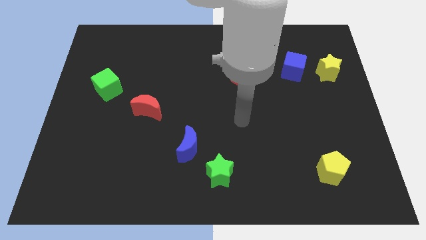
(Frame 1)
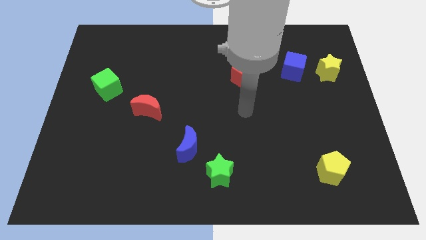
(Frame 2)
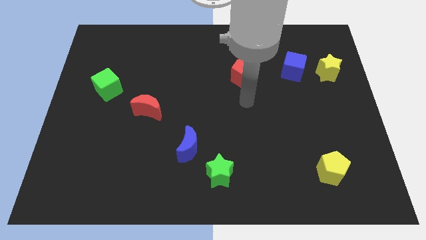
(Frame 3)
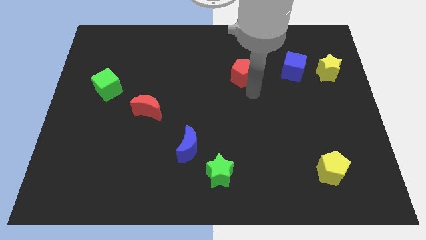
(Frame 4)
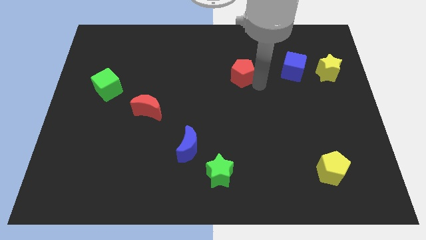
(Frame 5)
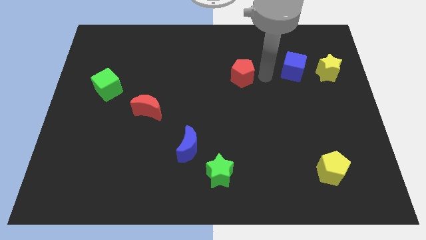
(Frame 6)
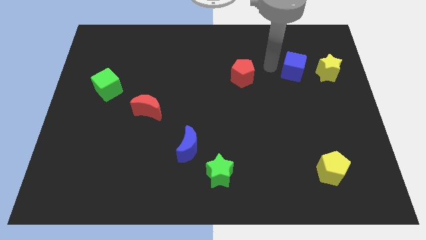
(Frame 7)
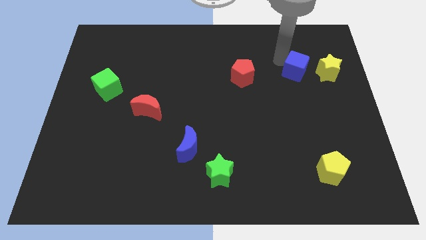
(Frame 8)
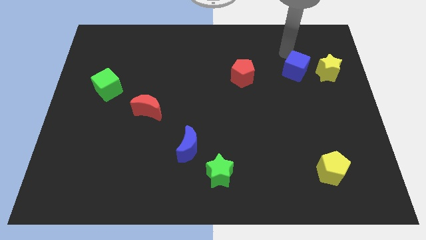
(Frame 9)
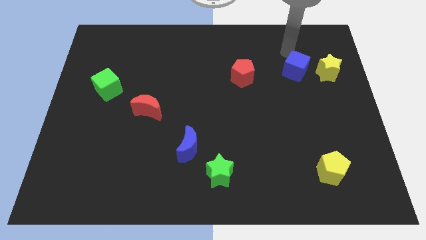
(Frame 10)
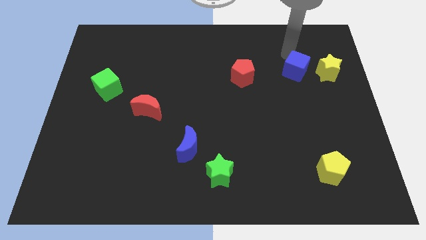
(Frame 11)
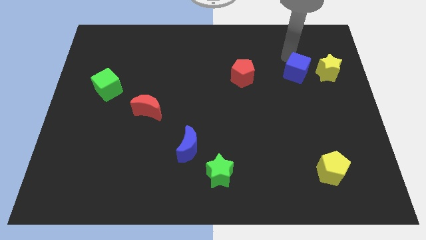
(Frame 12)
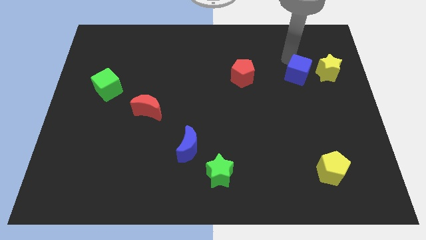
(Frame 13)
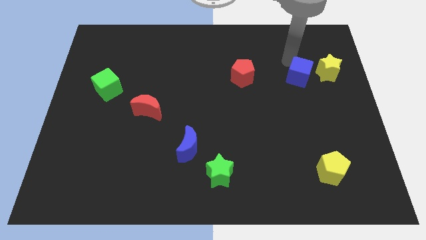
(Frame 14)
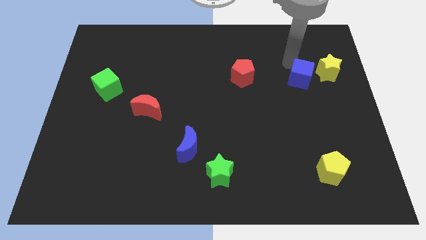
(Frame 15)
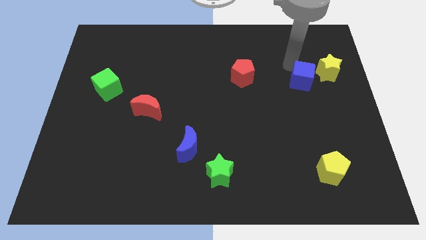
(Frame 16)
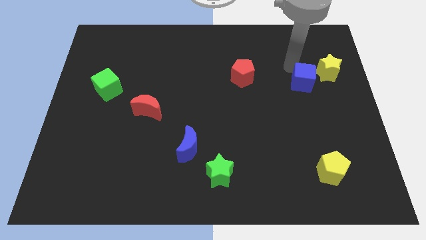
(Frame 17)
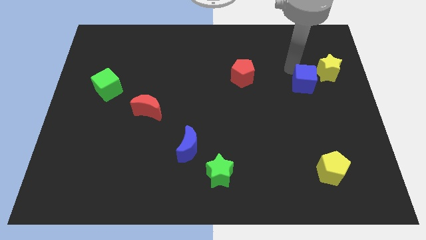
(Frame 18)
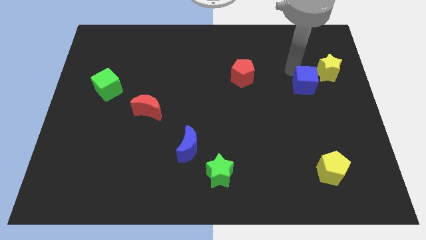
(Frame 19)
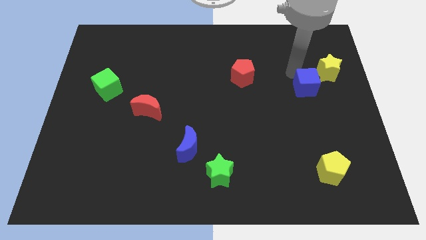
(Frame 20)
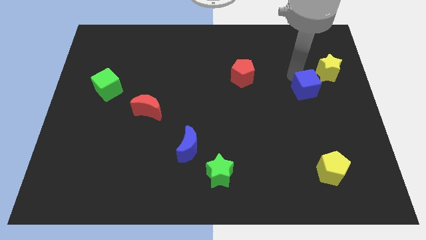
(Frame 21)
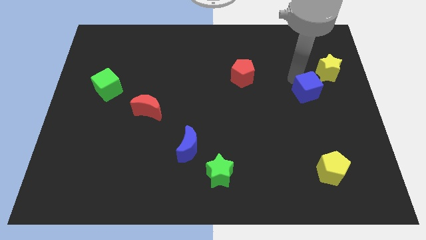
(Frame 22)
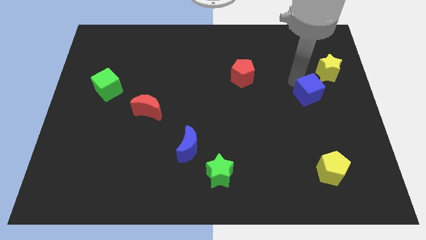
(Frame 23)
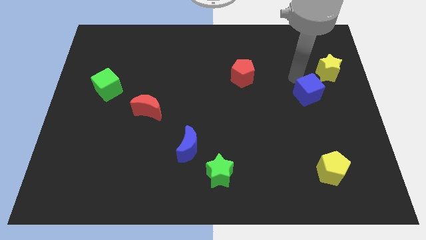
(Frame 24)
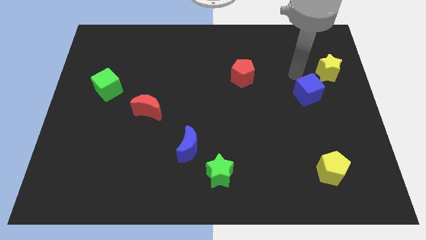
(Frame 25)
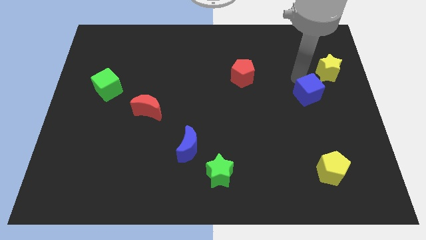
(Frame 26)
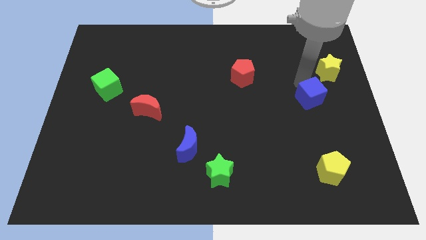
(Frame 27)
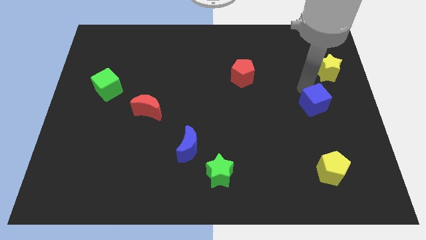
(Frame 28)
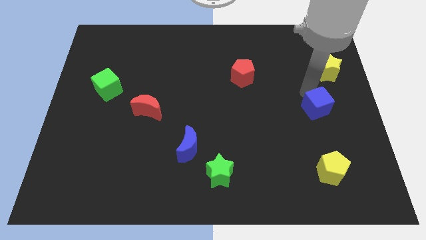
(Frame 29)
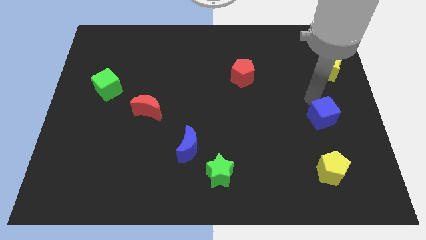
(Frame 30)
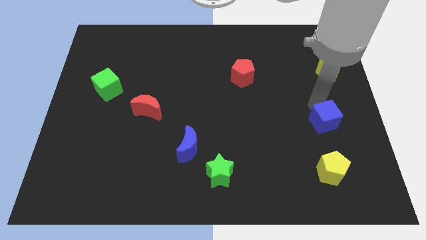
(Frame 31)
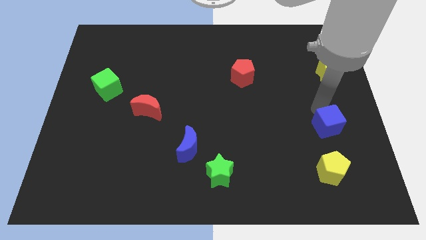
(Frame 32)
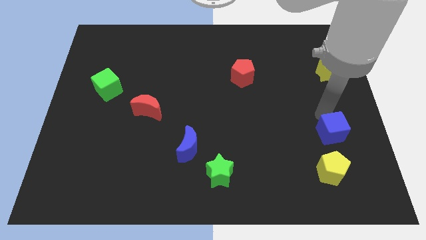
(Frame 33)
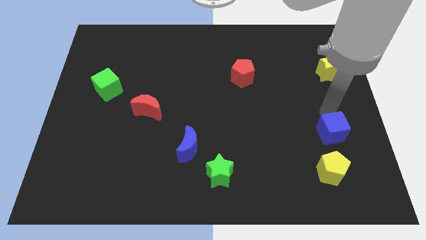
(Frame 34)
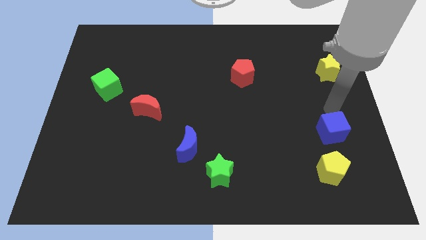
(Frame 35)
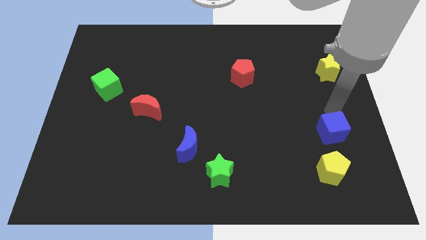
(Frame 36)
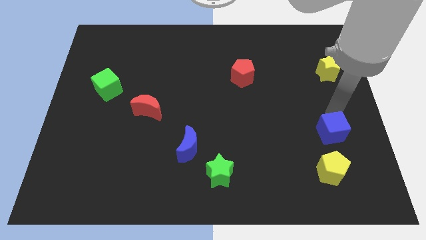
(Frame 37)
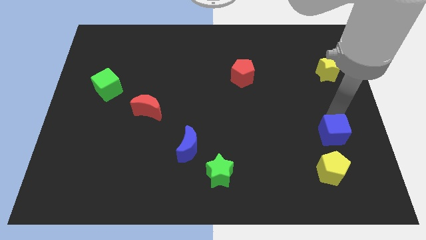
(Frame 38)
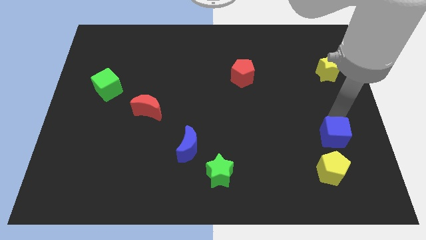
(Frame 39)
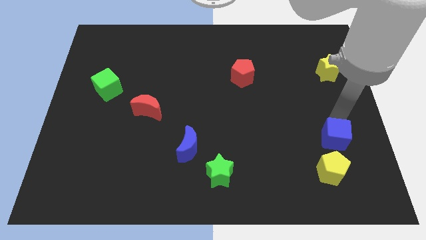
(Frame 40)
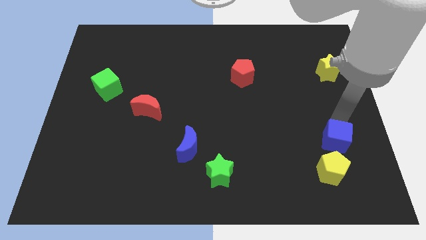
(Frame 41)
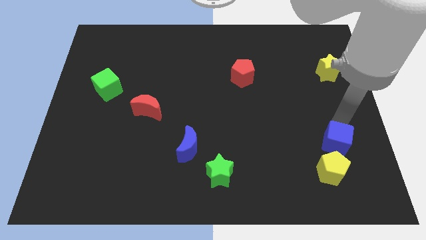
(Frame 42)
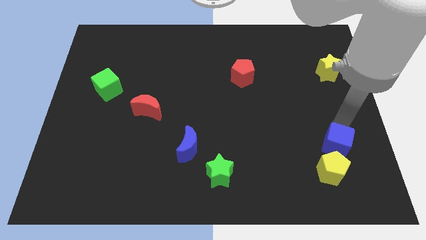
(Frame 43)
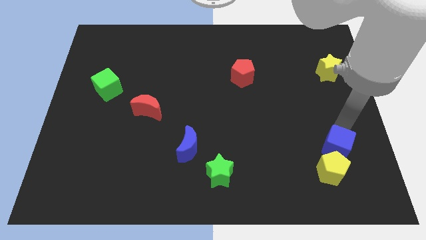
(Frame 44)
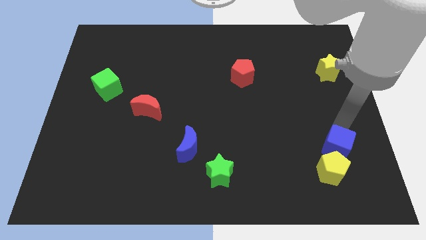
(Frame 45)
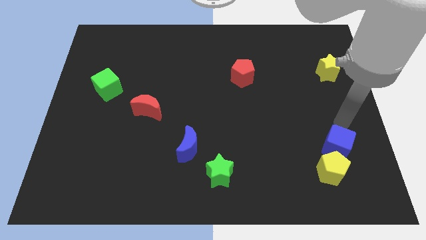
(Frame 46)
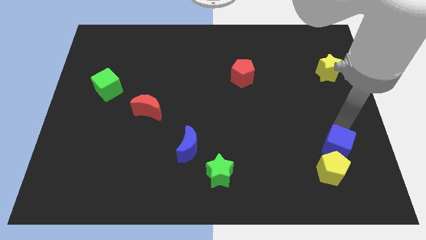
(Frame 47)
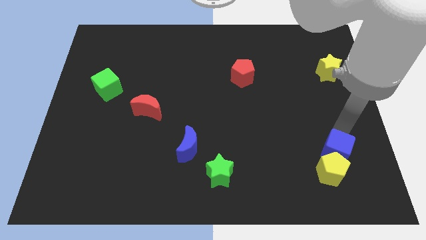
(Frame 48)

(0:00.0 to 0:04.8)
move the blue cube towards the yellow pentagon

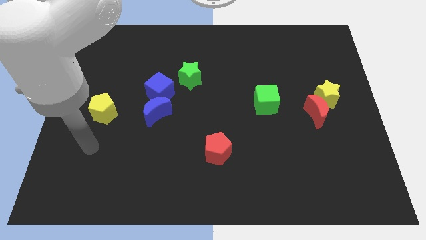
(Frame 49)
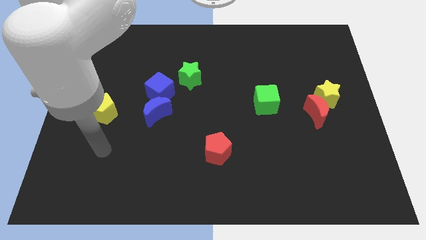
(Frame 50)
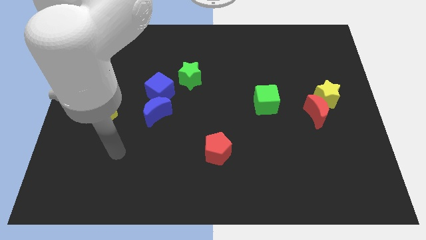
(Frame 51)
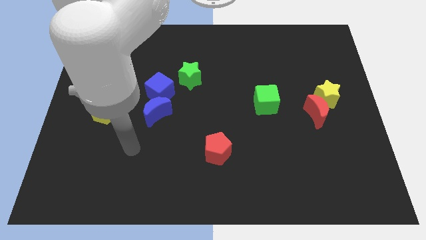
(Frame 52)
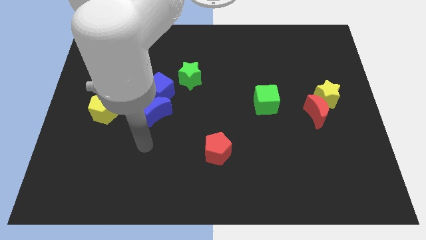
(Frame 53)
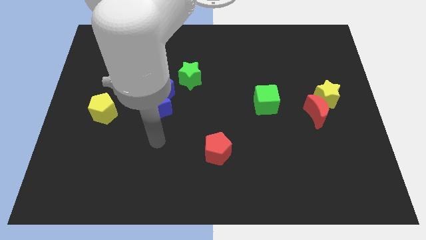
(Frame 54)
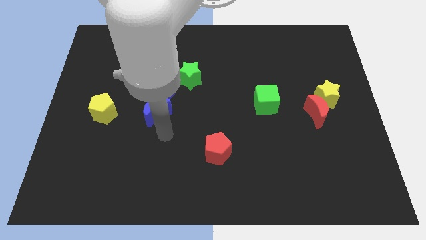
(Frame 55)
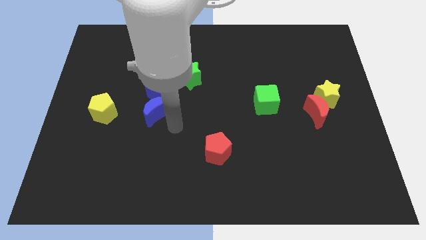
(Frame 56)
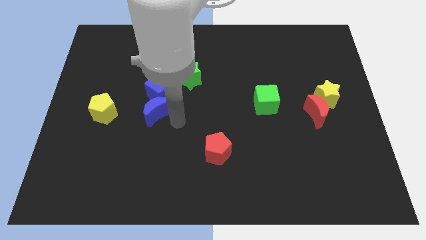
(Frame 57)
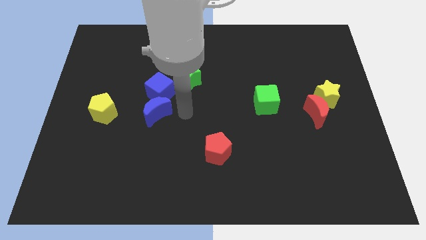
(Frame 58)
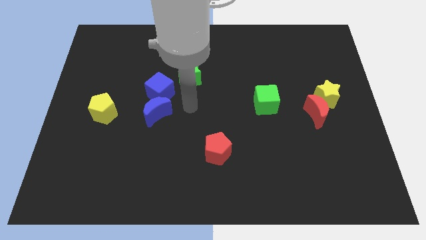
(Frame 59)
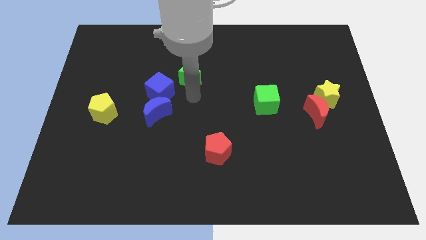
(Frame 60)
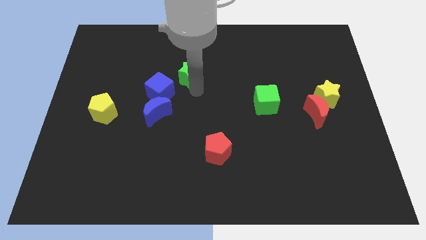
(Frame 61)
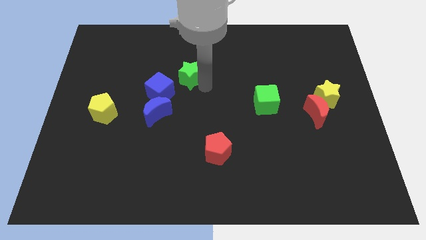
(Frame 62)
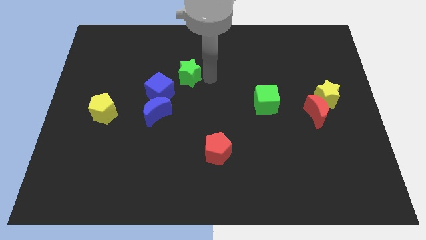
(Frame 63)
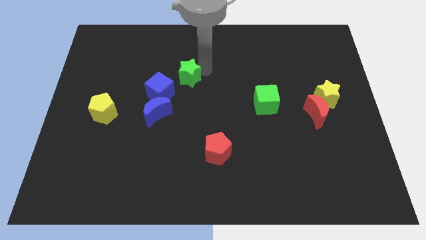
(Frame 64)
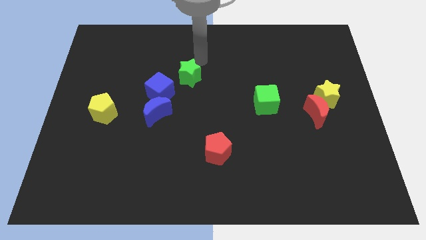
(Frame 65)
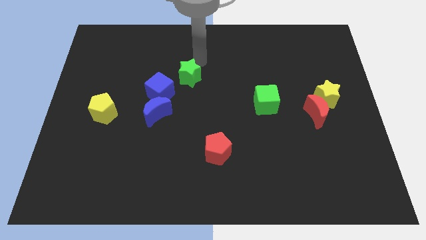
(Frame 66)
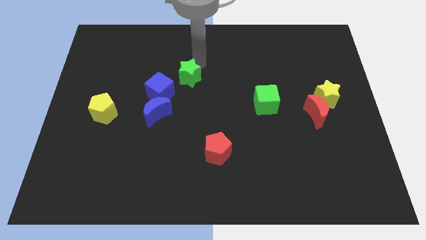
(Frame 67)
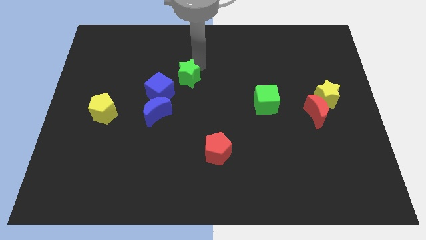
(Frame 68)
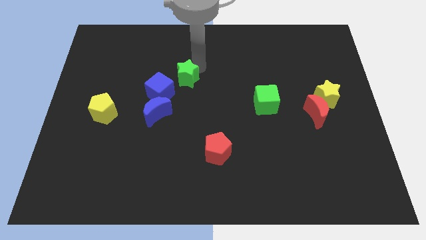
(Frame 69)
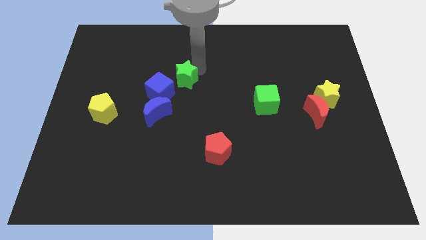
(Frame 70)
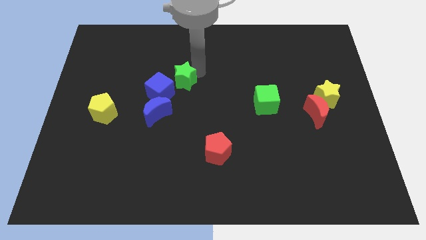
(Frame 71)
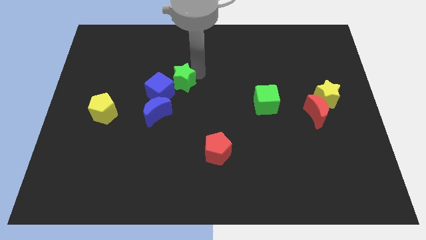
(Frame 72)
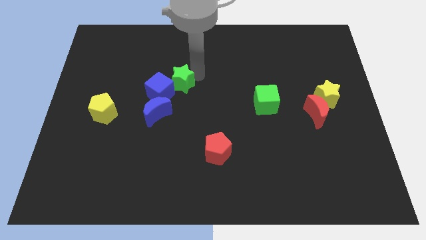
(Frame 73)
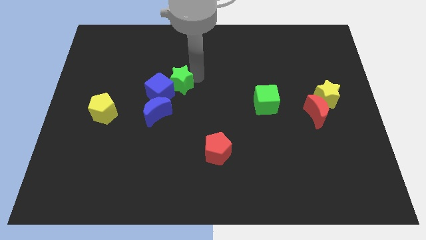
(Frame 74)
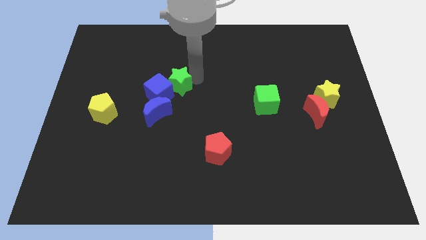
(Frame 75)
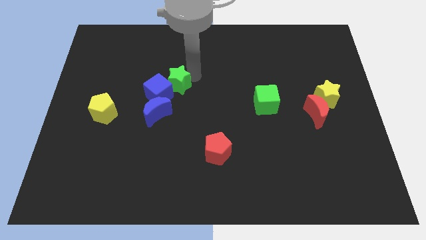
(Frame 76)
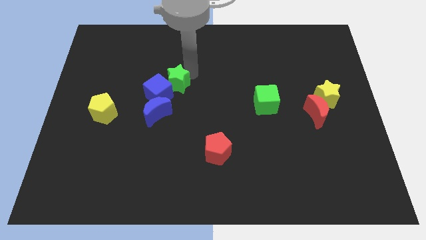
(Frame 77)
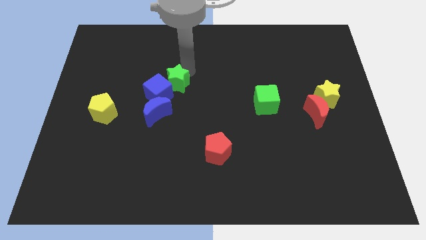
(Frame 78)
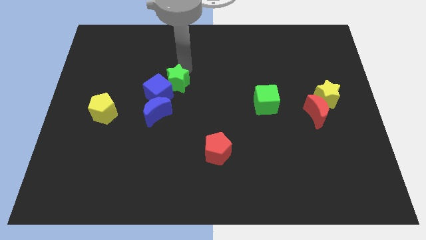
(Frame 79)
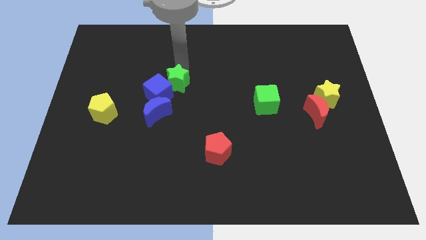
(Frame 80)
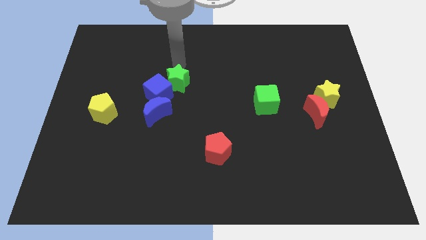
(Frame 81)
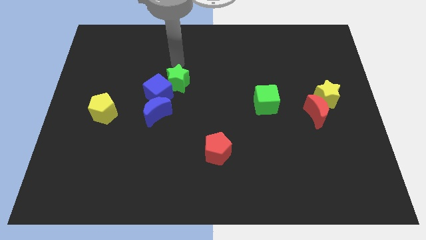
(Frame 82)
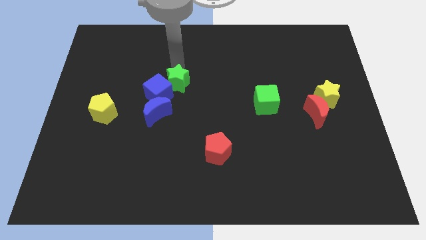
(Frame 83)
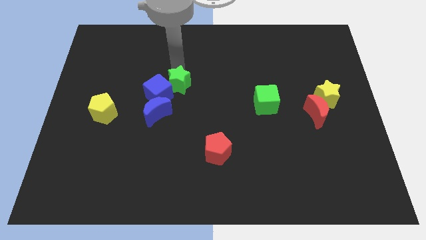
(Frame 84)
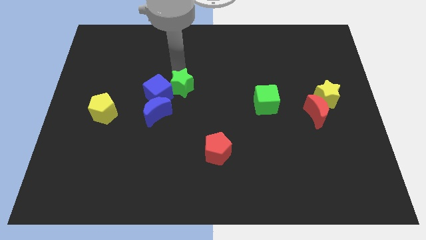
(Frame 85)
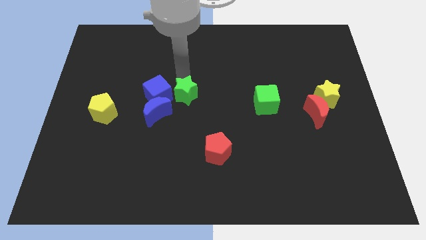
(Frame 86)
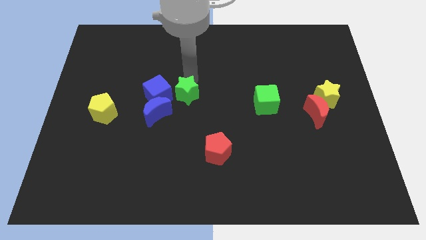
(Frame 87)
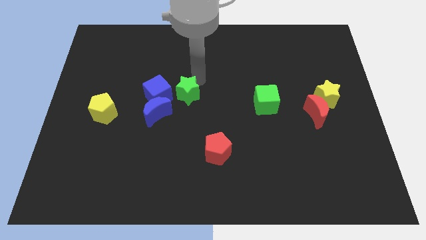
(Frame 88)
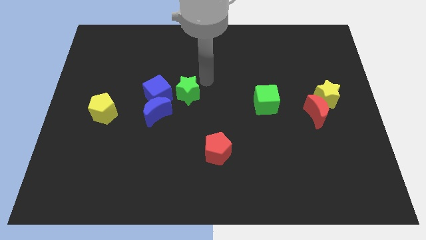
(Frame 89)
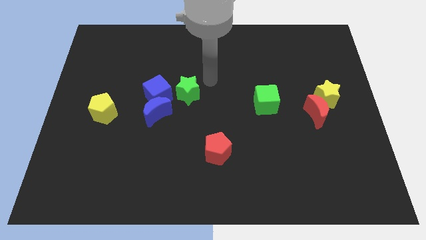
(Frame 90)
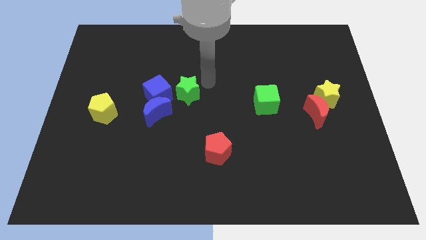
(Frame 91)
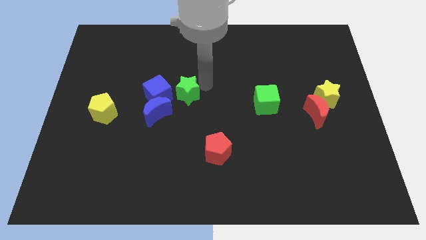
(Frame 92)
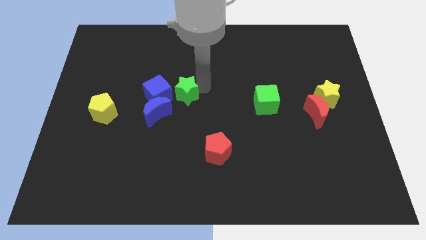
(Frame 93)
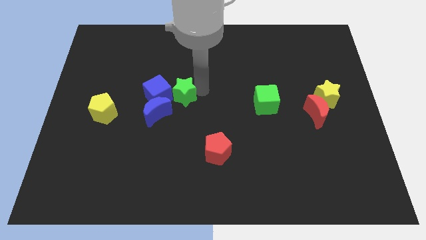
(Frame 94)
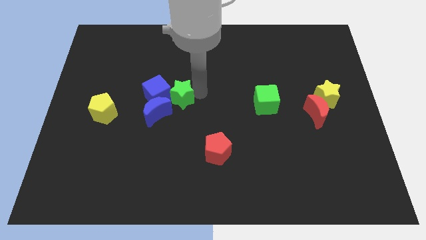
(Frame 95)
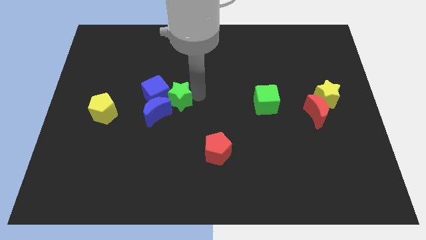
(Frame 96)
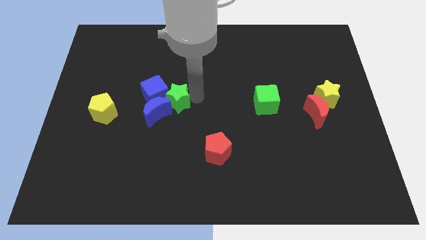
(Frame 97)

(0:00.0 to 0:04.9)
slide the green star close to the blue moon
